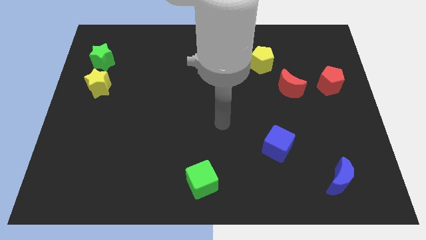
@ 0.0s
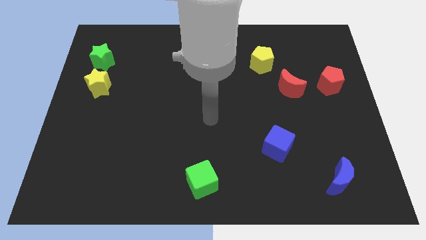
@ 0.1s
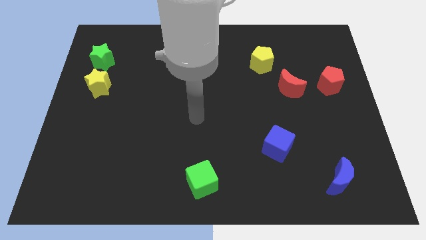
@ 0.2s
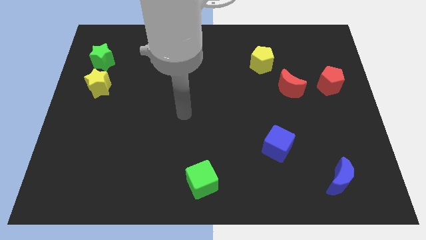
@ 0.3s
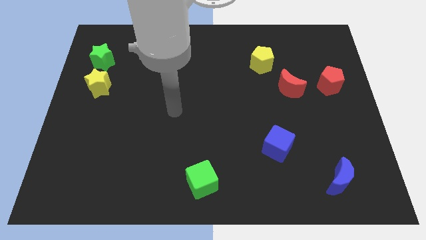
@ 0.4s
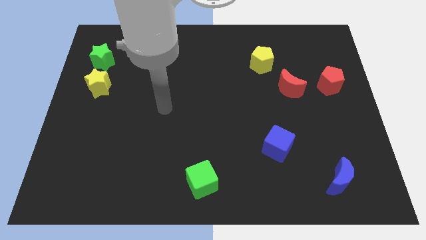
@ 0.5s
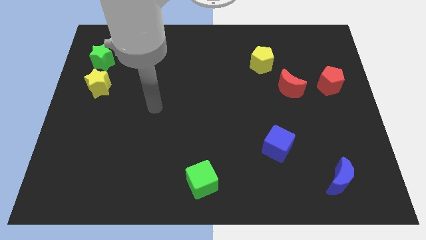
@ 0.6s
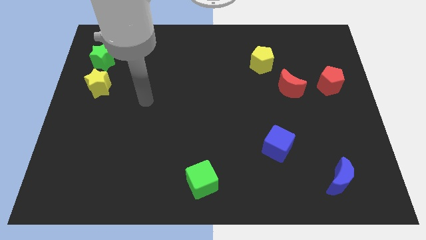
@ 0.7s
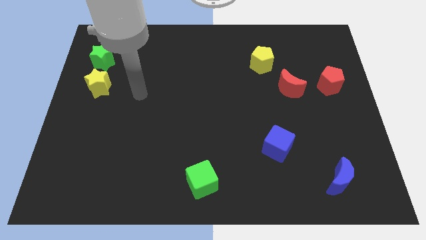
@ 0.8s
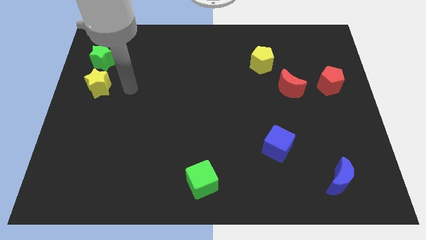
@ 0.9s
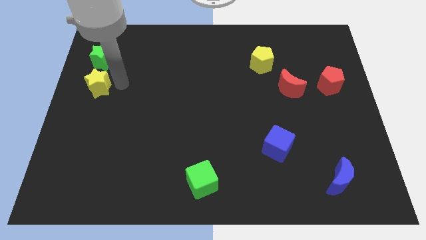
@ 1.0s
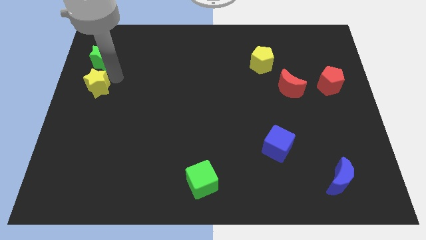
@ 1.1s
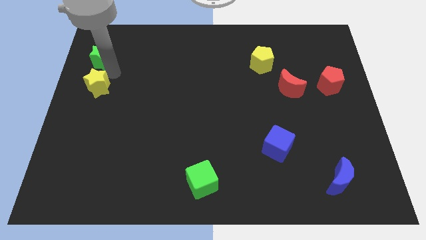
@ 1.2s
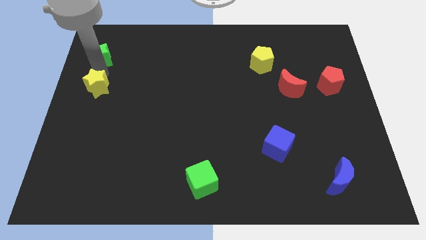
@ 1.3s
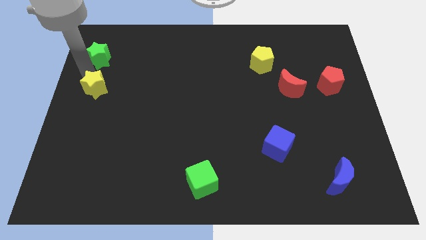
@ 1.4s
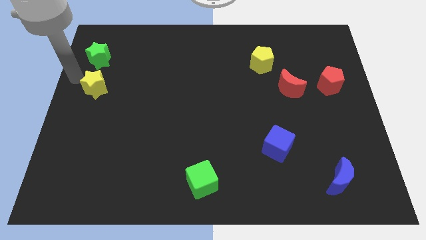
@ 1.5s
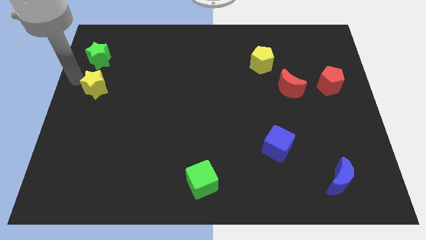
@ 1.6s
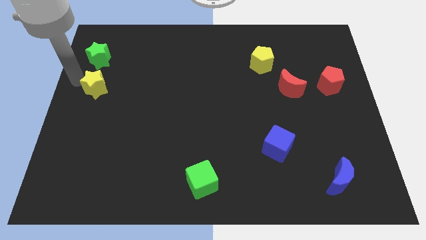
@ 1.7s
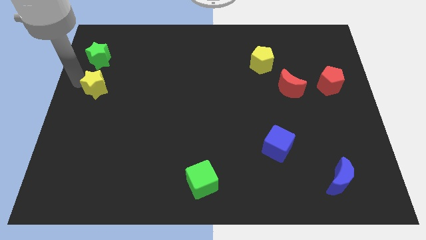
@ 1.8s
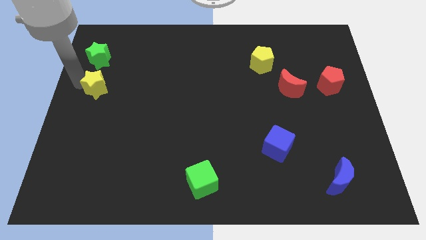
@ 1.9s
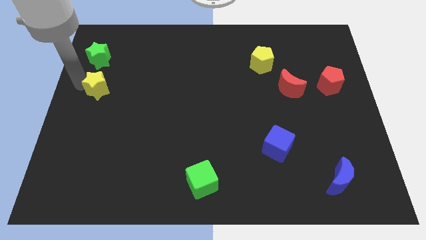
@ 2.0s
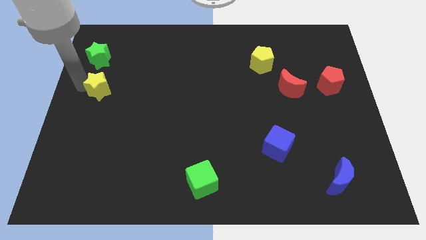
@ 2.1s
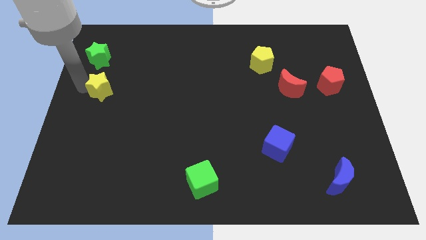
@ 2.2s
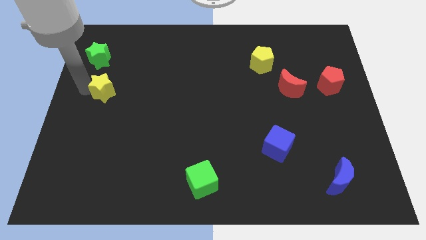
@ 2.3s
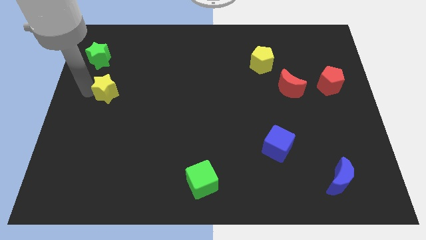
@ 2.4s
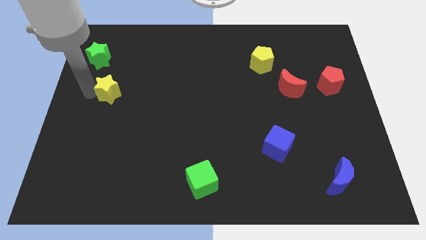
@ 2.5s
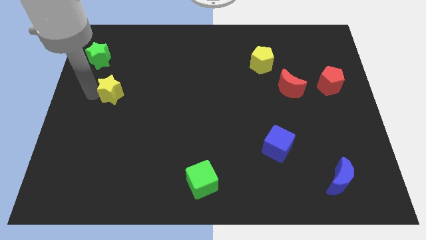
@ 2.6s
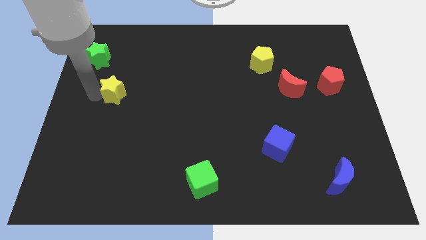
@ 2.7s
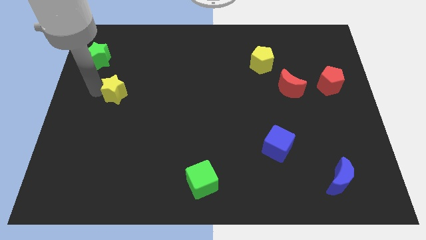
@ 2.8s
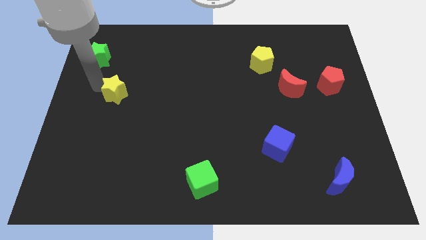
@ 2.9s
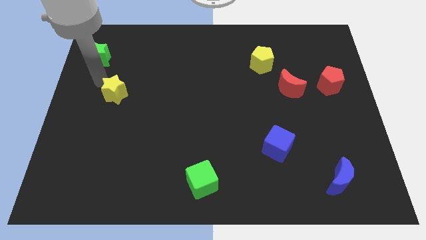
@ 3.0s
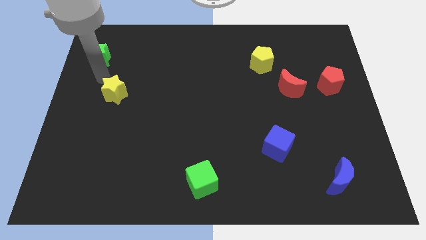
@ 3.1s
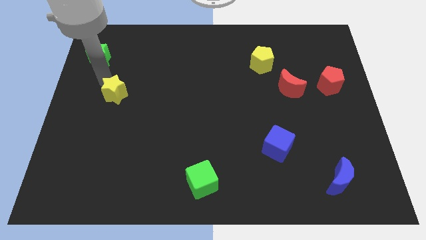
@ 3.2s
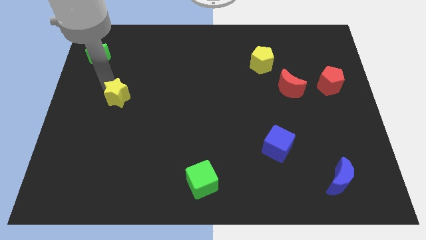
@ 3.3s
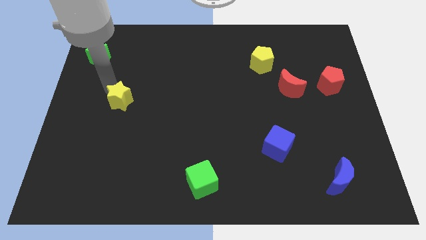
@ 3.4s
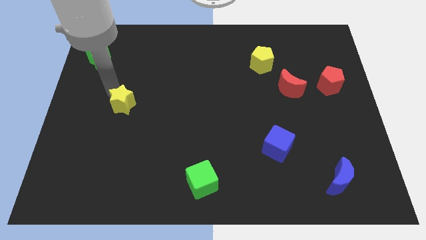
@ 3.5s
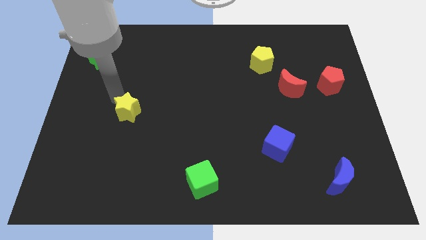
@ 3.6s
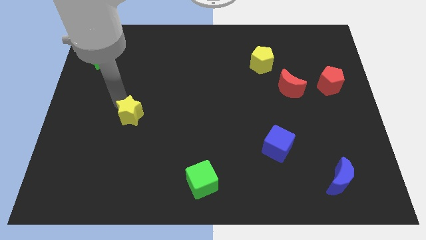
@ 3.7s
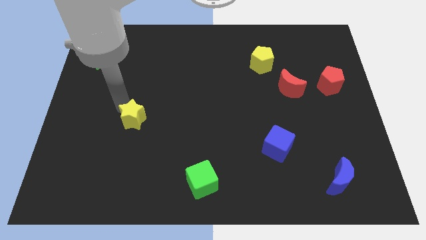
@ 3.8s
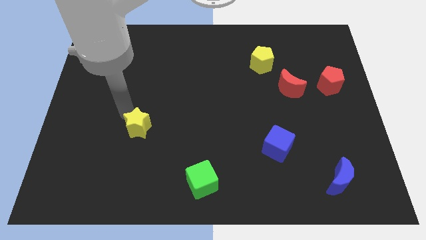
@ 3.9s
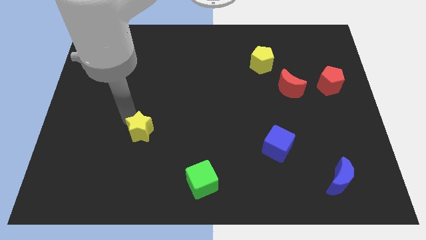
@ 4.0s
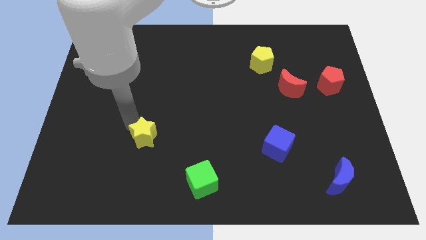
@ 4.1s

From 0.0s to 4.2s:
move the yellow star downwards and right

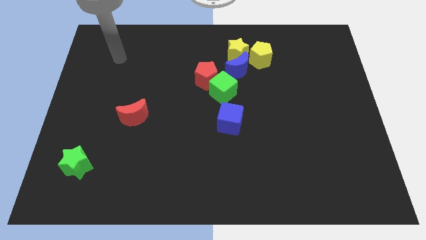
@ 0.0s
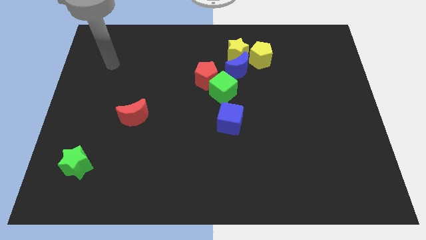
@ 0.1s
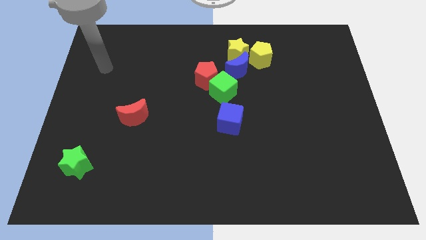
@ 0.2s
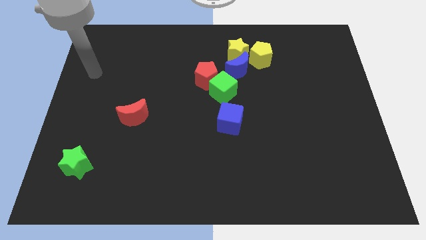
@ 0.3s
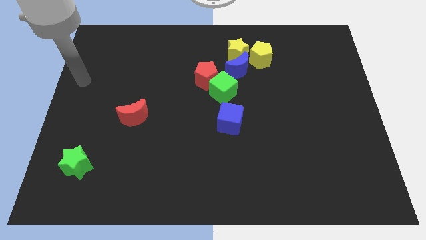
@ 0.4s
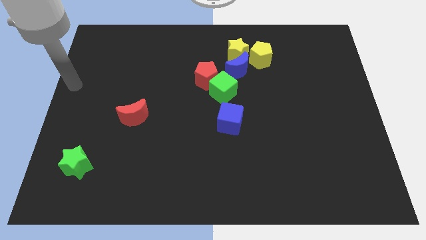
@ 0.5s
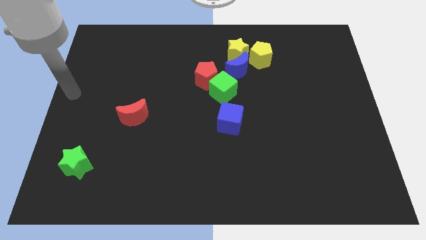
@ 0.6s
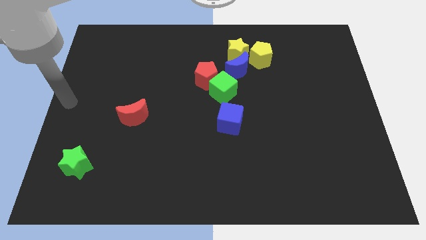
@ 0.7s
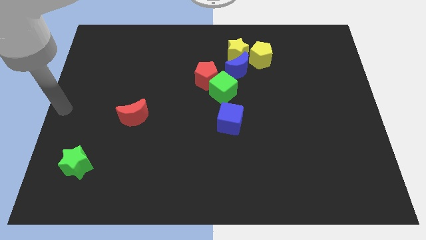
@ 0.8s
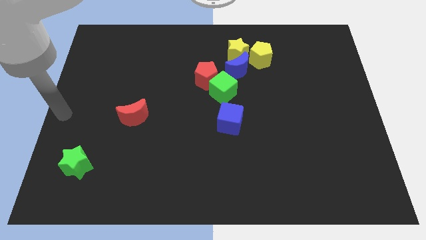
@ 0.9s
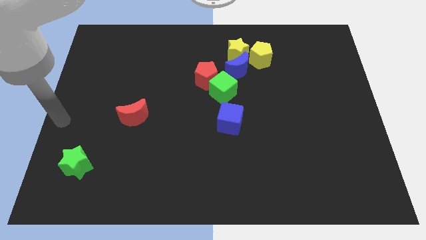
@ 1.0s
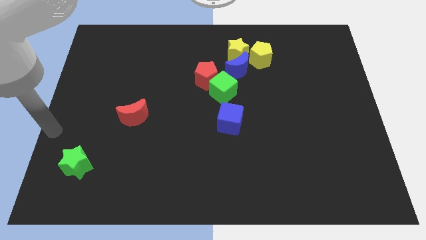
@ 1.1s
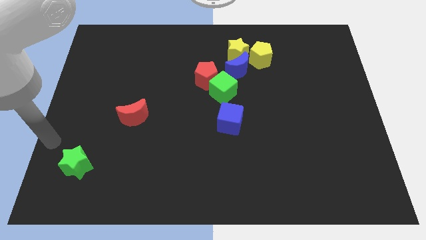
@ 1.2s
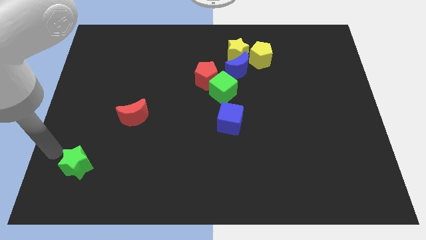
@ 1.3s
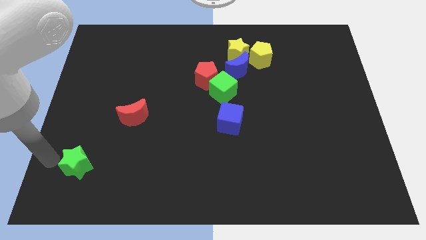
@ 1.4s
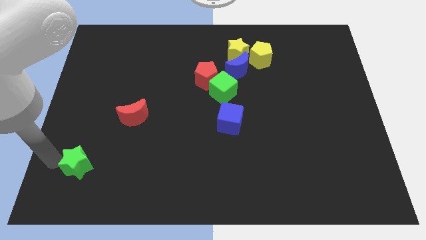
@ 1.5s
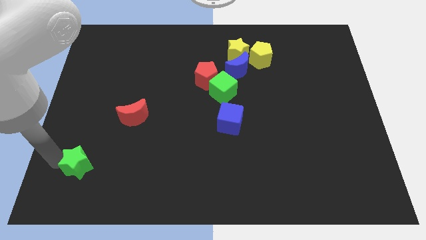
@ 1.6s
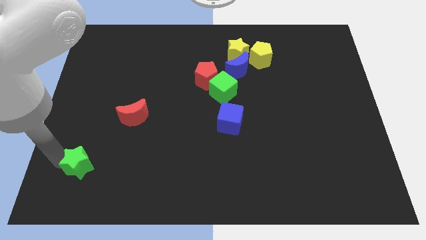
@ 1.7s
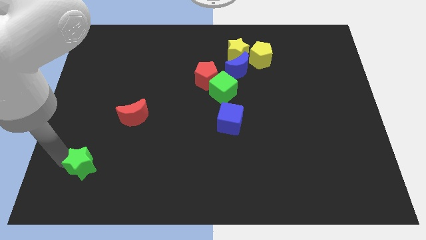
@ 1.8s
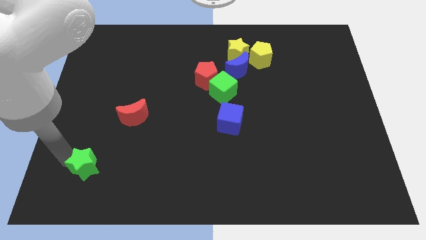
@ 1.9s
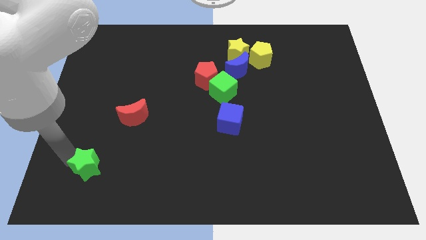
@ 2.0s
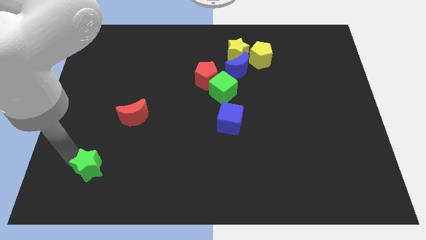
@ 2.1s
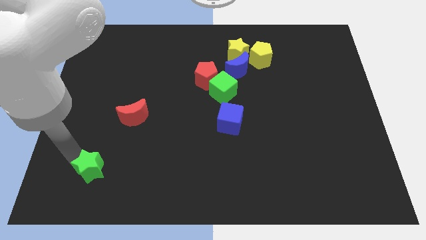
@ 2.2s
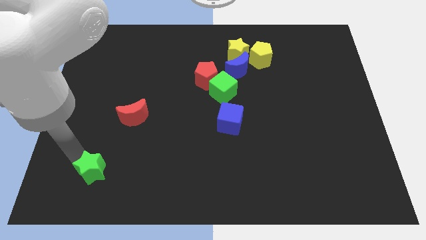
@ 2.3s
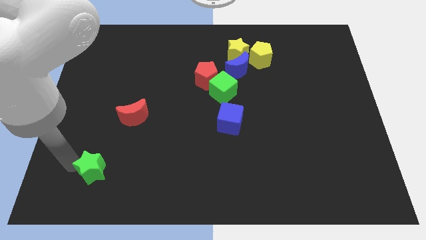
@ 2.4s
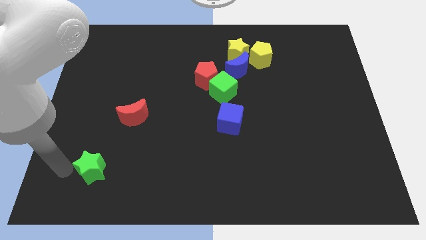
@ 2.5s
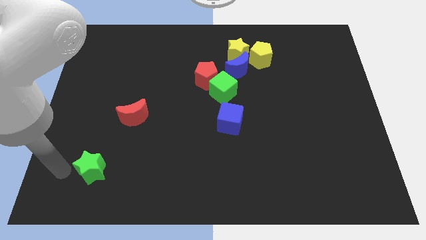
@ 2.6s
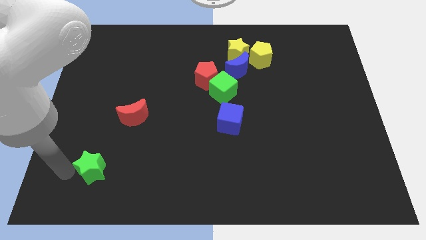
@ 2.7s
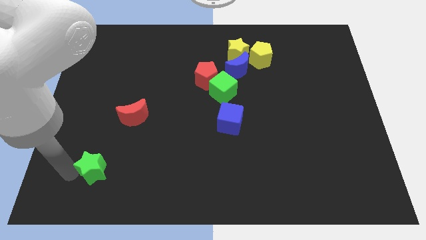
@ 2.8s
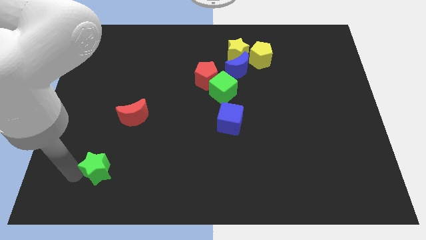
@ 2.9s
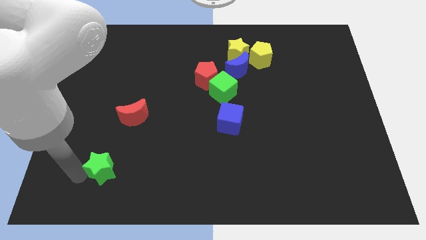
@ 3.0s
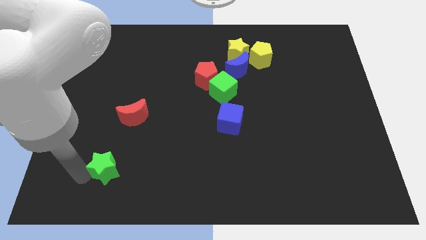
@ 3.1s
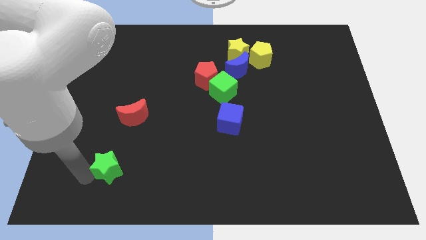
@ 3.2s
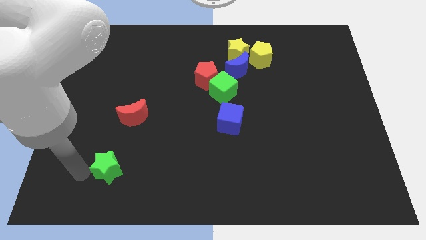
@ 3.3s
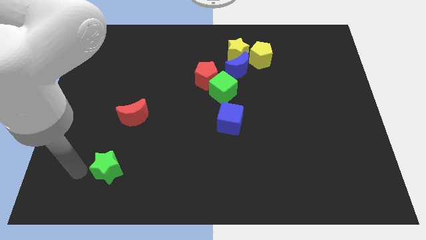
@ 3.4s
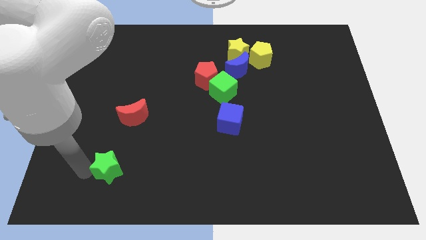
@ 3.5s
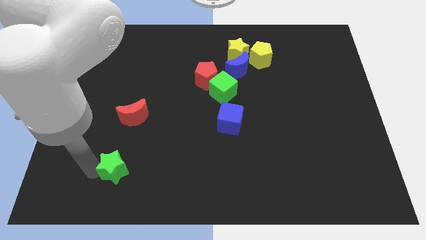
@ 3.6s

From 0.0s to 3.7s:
push the green star right a little bit

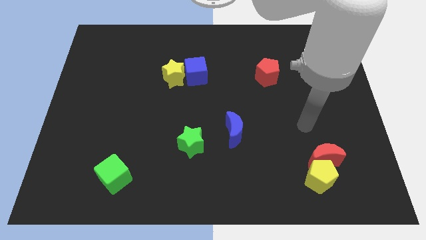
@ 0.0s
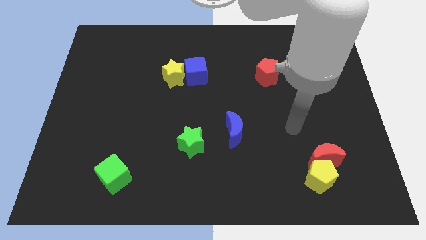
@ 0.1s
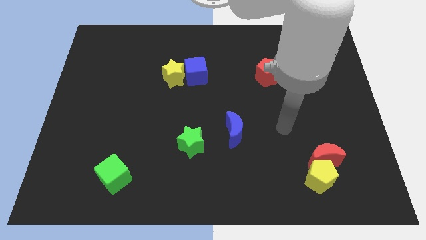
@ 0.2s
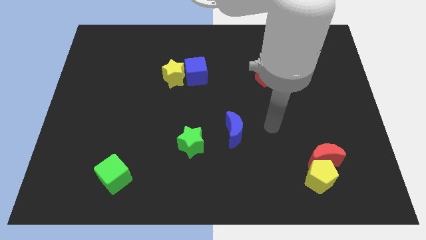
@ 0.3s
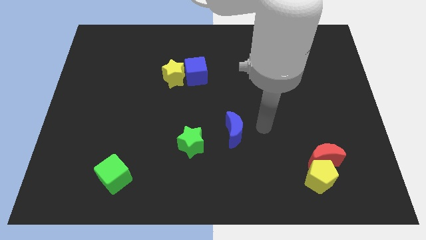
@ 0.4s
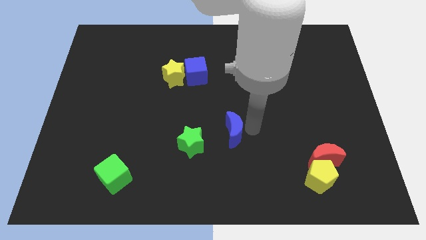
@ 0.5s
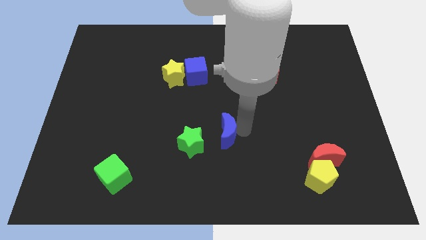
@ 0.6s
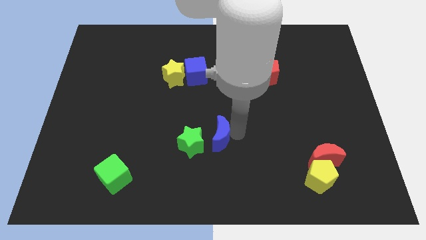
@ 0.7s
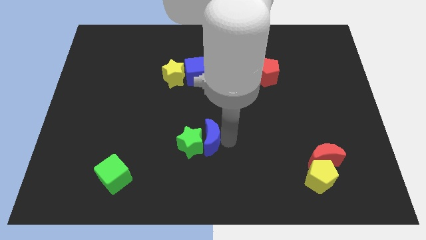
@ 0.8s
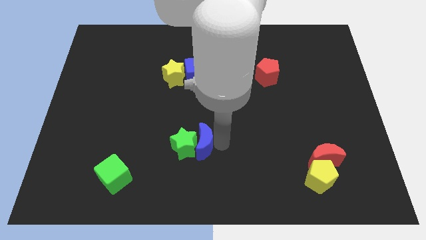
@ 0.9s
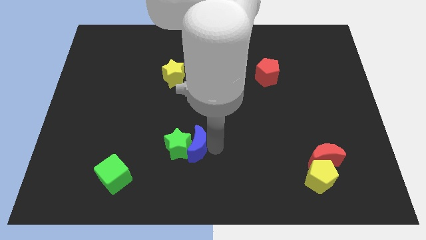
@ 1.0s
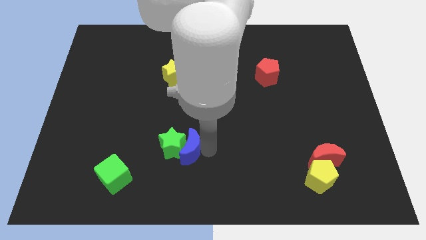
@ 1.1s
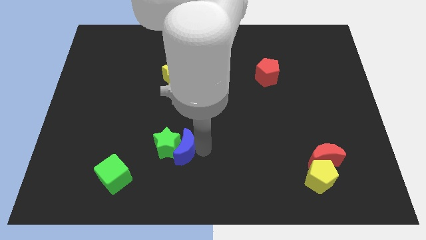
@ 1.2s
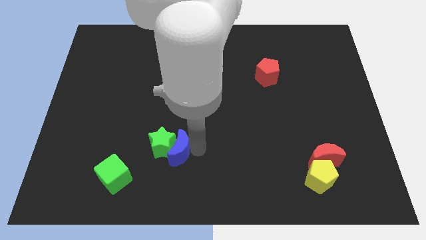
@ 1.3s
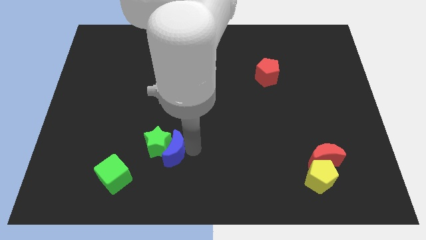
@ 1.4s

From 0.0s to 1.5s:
move the green star left a little bit
